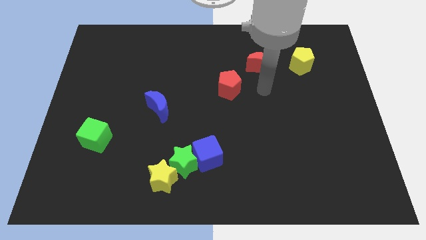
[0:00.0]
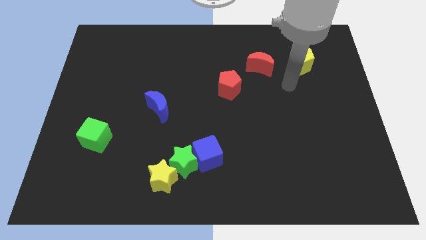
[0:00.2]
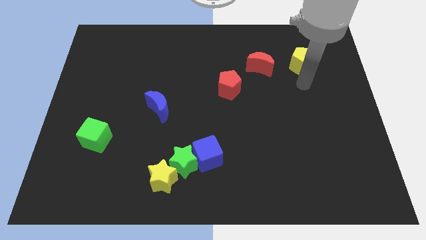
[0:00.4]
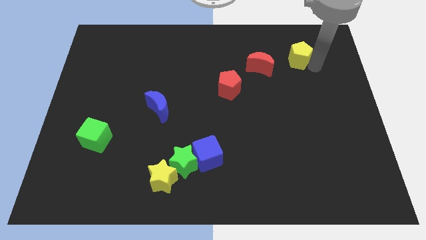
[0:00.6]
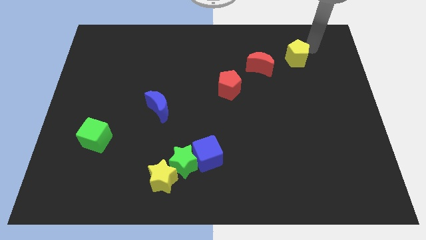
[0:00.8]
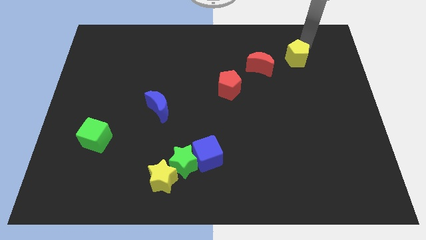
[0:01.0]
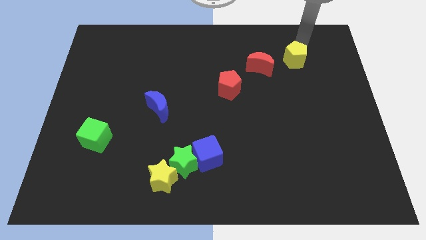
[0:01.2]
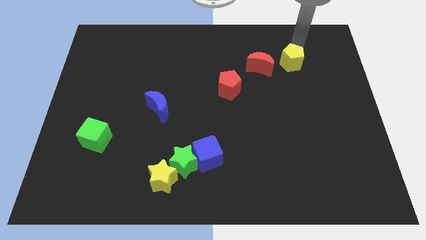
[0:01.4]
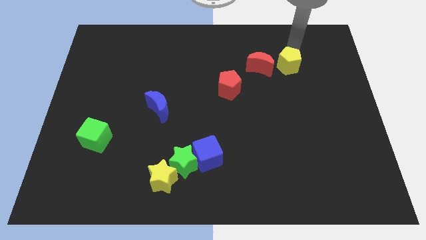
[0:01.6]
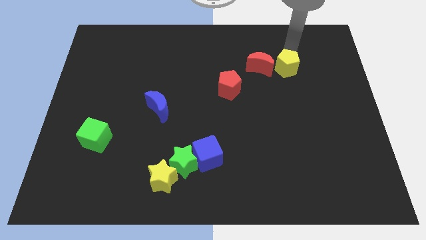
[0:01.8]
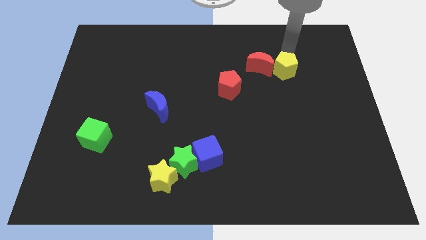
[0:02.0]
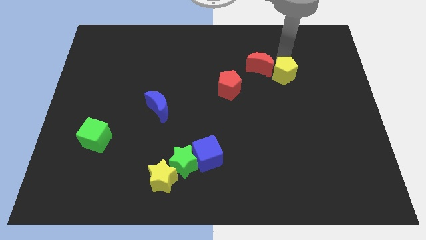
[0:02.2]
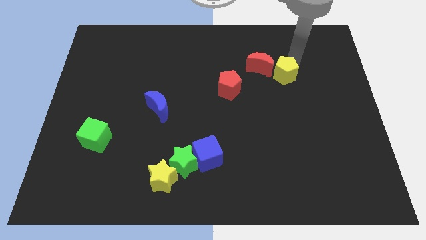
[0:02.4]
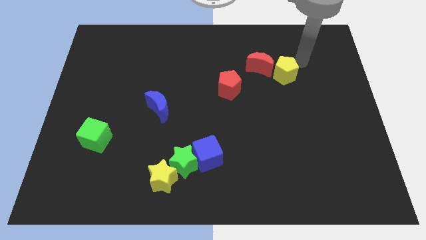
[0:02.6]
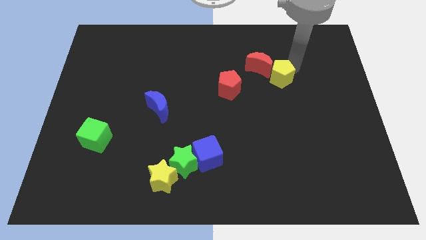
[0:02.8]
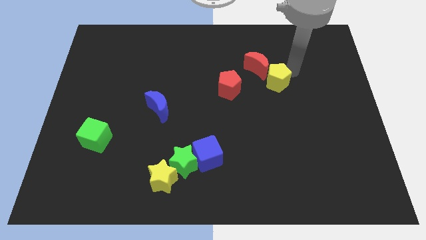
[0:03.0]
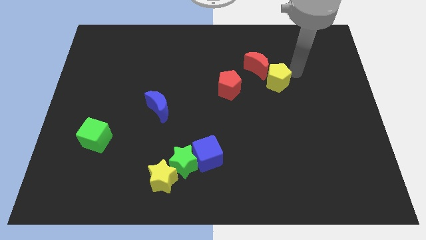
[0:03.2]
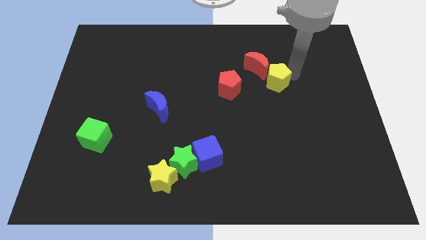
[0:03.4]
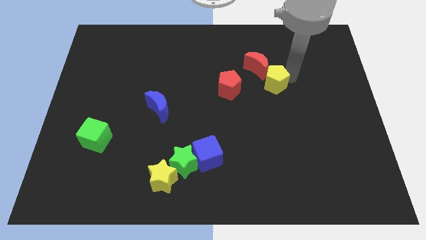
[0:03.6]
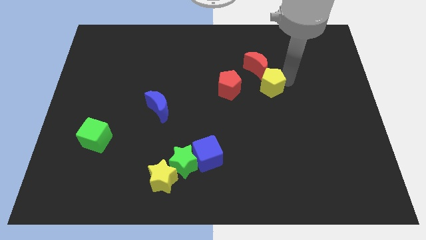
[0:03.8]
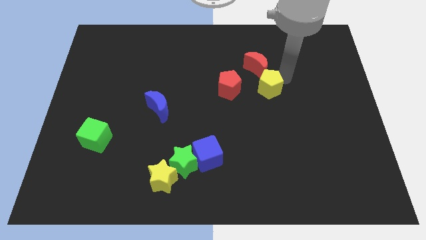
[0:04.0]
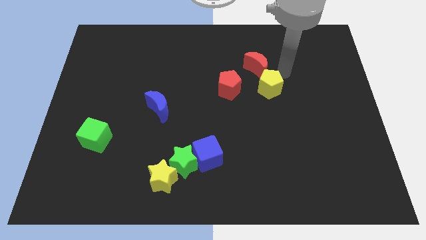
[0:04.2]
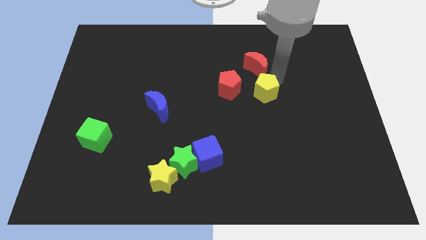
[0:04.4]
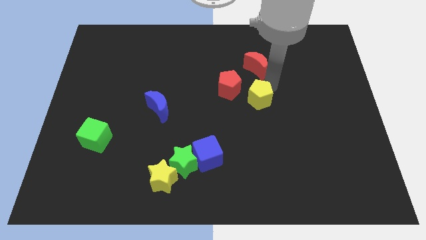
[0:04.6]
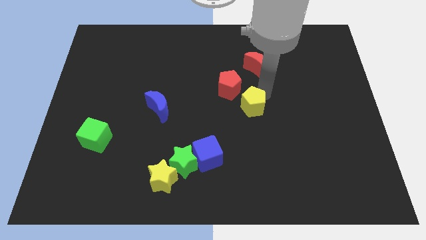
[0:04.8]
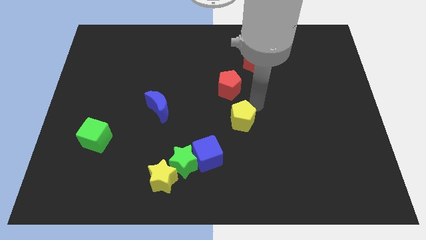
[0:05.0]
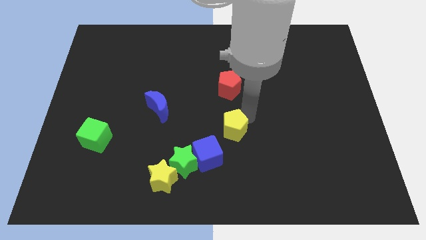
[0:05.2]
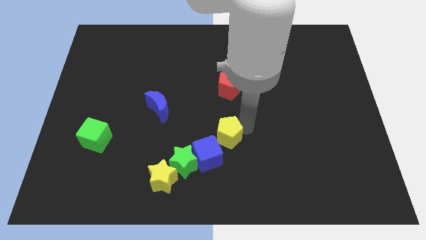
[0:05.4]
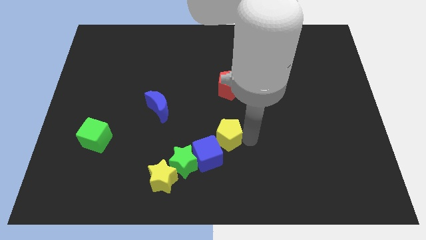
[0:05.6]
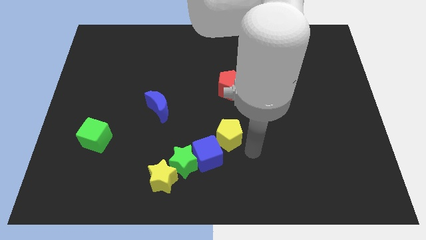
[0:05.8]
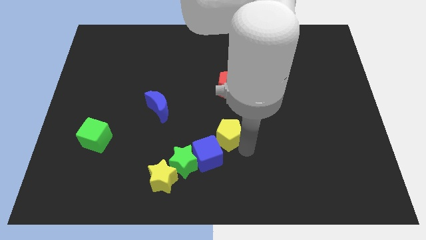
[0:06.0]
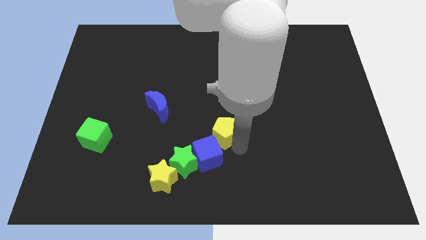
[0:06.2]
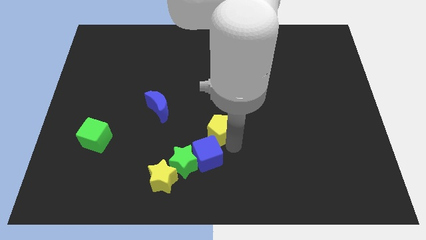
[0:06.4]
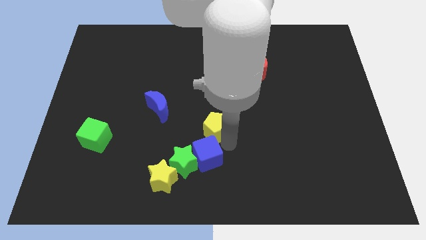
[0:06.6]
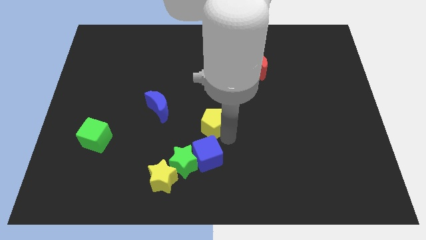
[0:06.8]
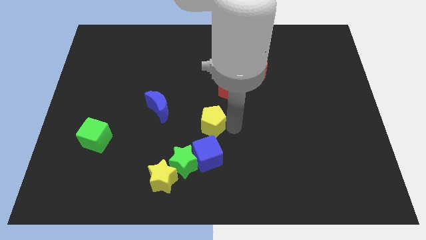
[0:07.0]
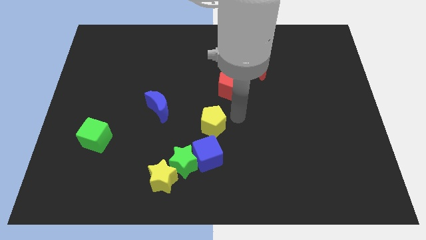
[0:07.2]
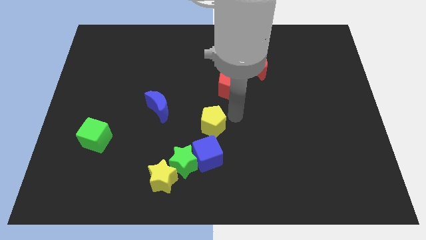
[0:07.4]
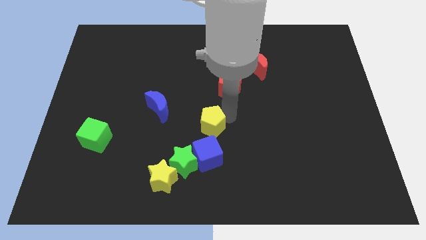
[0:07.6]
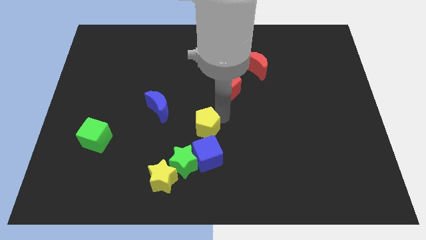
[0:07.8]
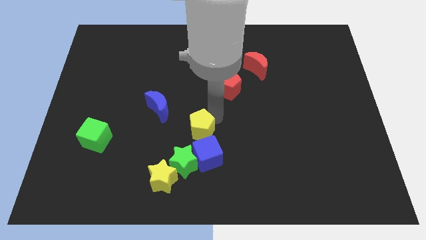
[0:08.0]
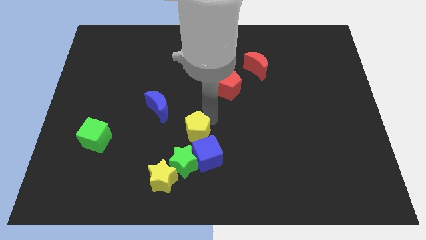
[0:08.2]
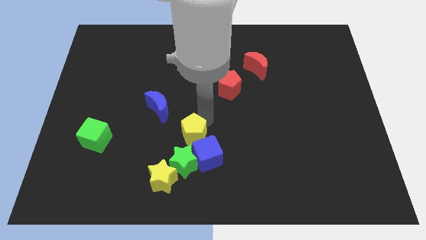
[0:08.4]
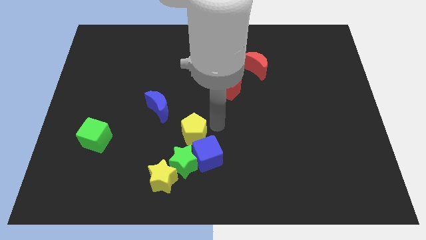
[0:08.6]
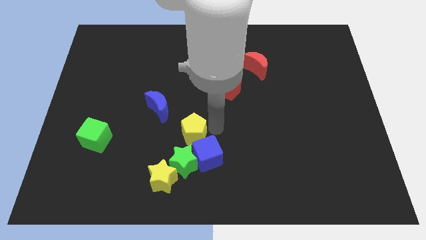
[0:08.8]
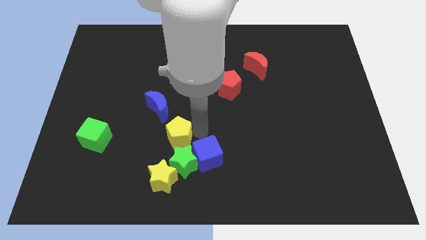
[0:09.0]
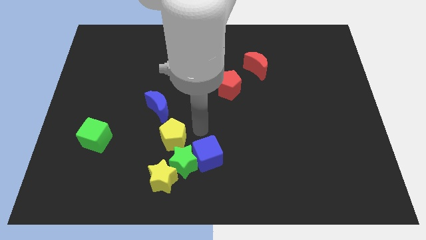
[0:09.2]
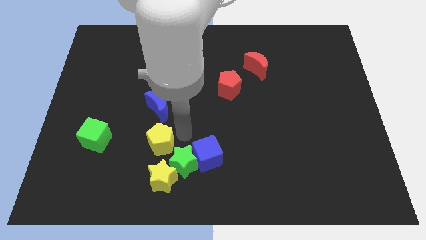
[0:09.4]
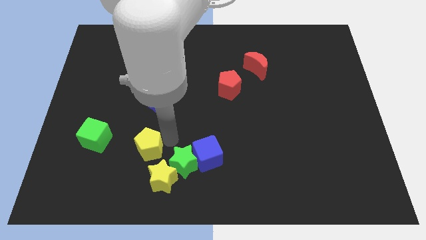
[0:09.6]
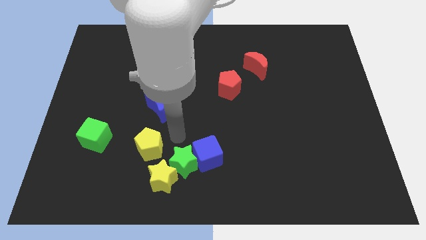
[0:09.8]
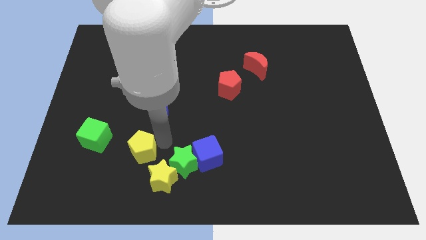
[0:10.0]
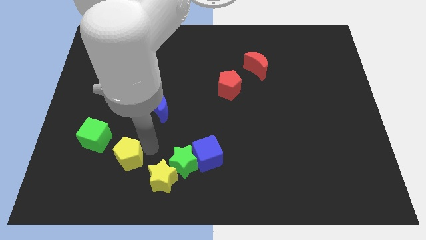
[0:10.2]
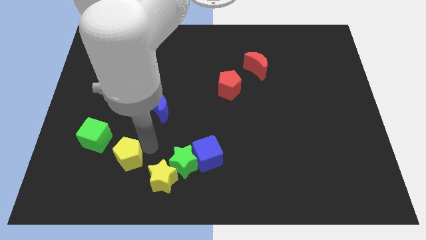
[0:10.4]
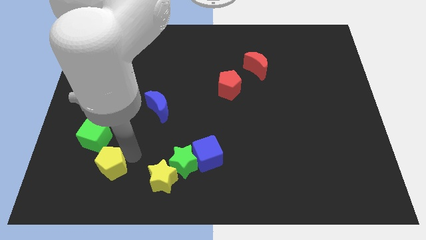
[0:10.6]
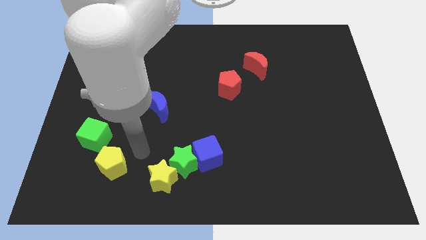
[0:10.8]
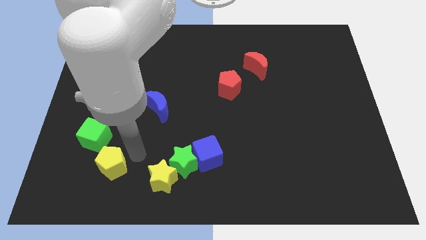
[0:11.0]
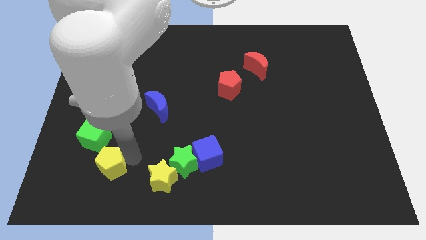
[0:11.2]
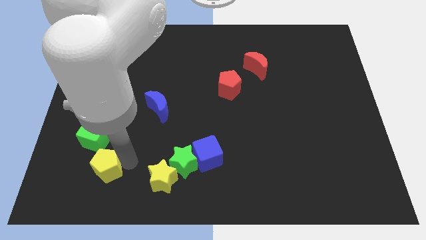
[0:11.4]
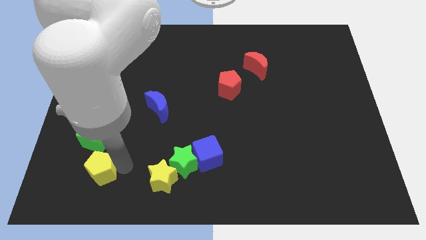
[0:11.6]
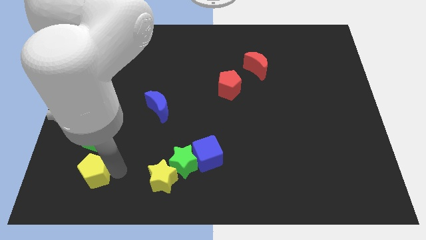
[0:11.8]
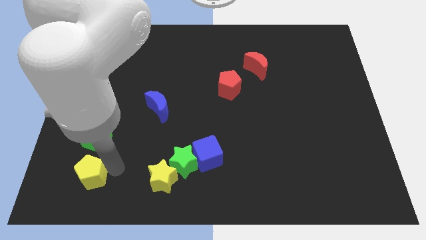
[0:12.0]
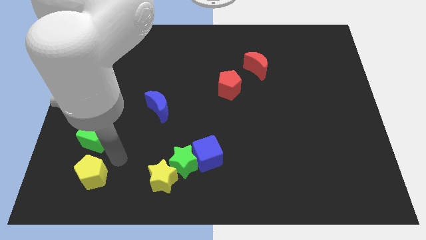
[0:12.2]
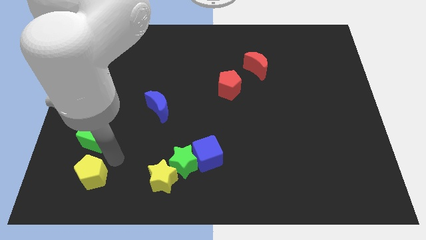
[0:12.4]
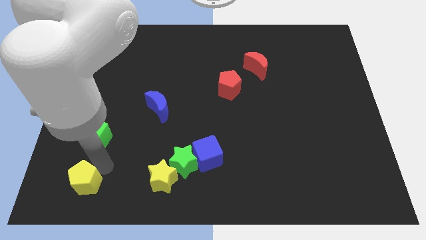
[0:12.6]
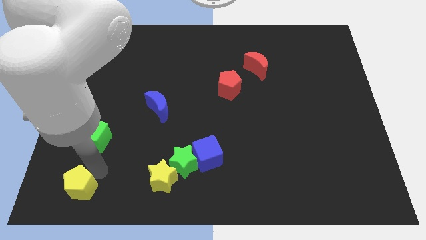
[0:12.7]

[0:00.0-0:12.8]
move the yellow pentagon to the lower left corner
